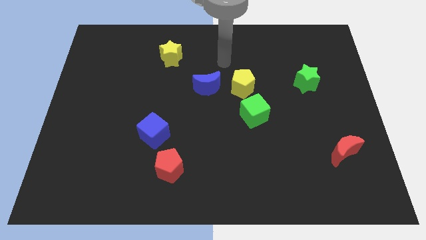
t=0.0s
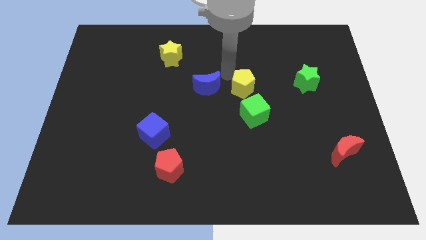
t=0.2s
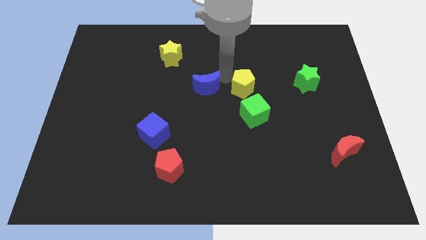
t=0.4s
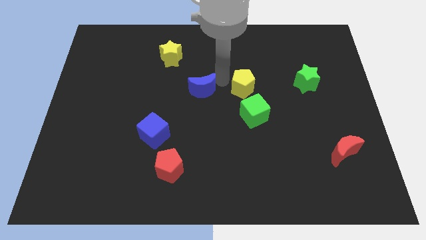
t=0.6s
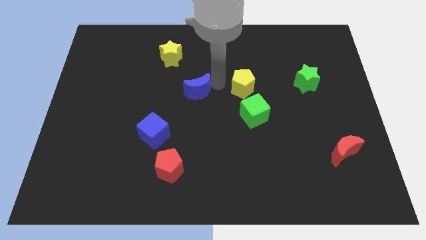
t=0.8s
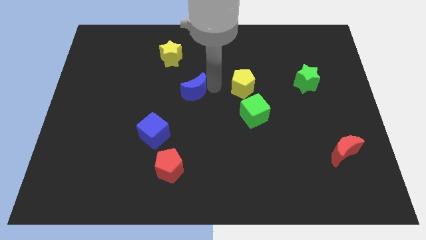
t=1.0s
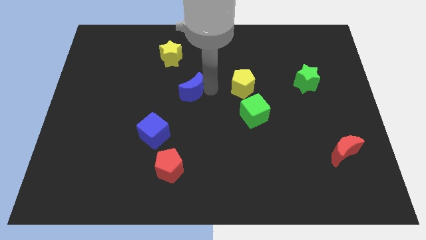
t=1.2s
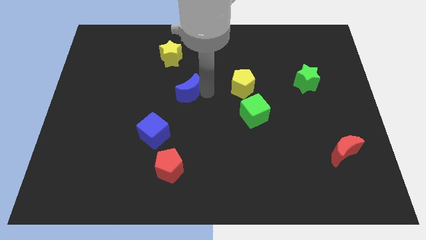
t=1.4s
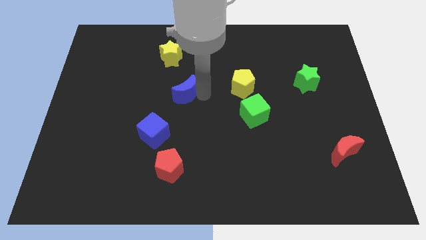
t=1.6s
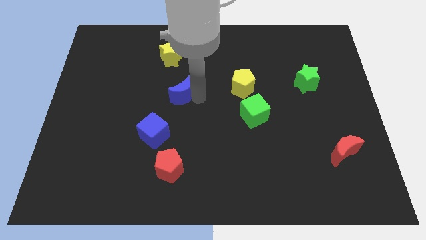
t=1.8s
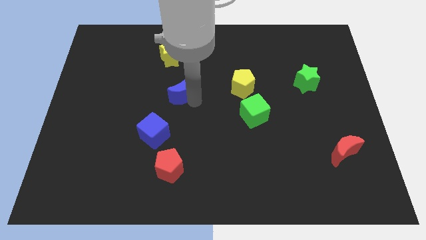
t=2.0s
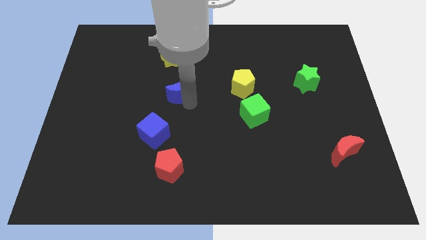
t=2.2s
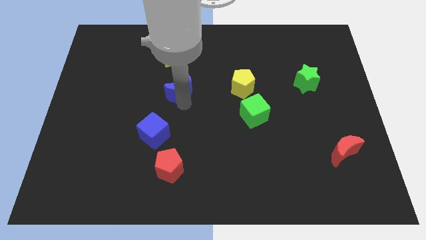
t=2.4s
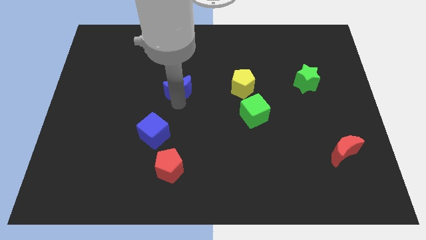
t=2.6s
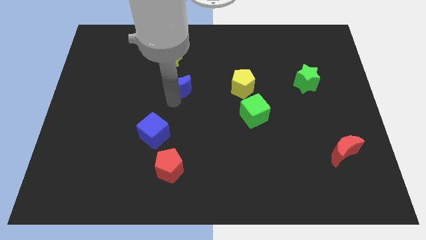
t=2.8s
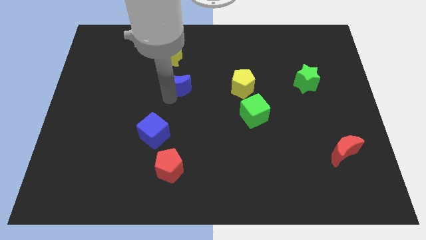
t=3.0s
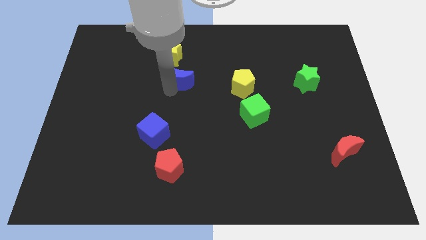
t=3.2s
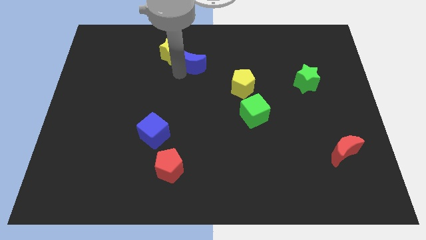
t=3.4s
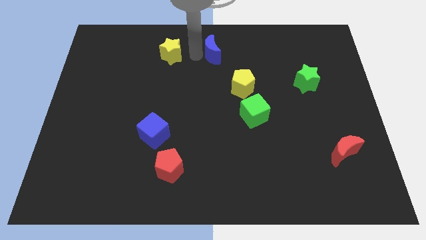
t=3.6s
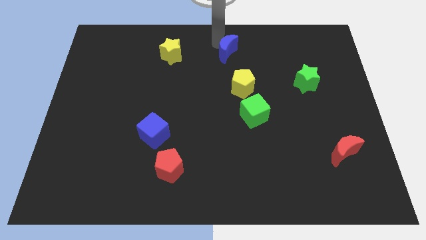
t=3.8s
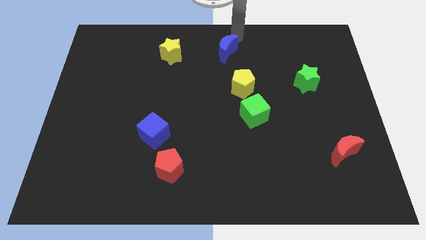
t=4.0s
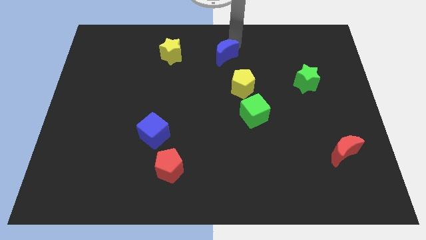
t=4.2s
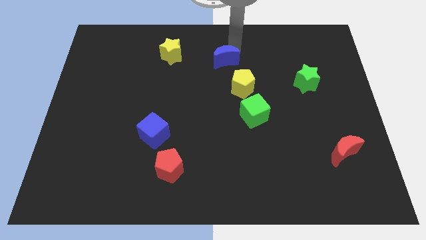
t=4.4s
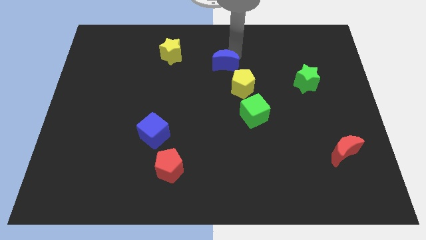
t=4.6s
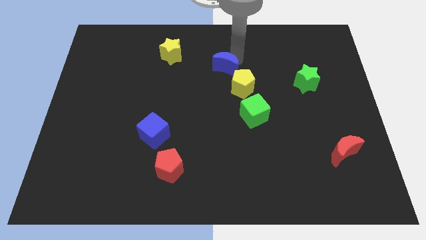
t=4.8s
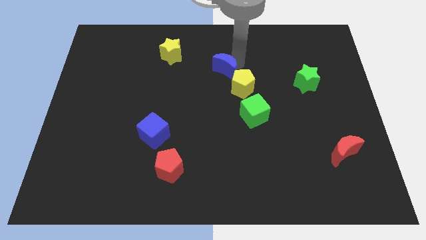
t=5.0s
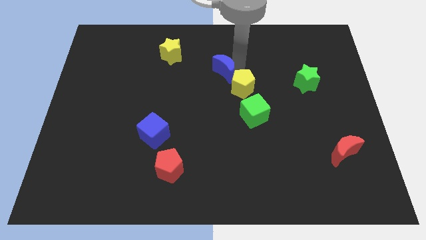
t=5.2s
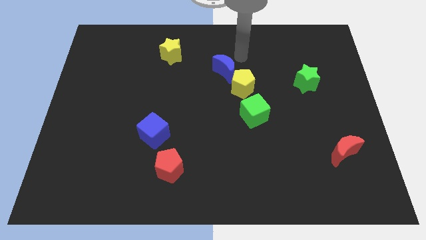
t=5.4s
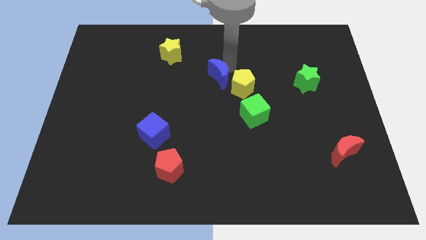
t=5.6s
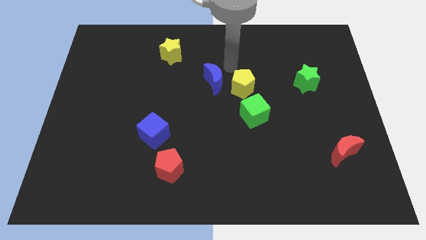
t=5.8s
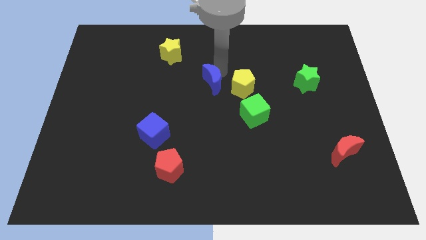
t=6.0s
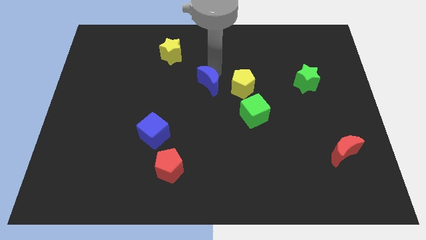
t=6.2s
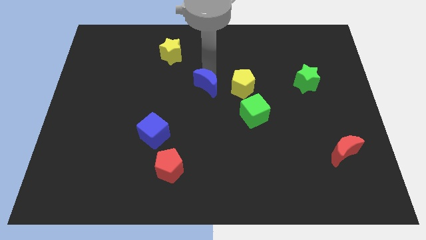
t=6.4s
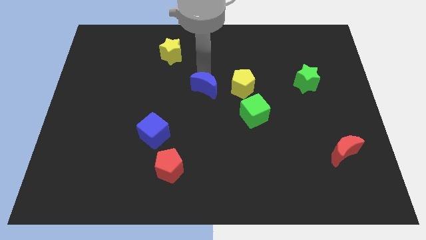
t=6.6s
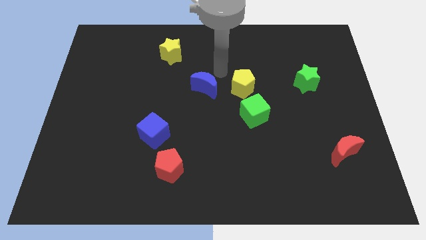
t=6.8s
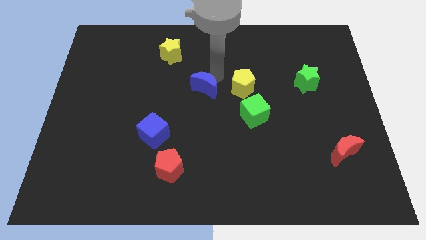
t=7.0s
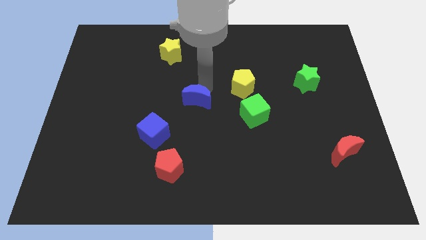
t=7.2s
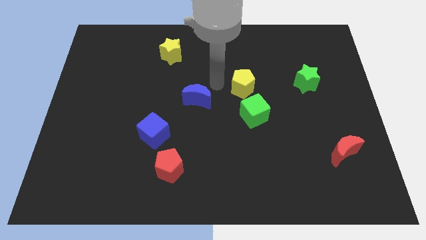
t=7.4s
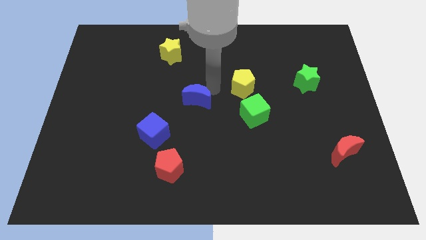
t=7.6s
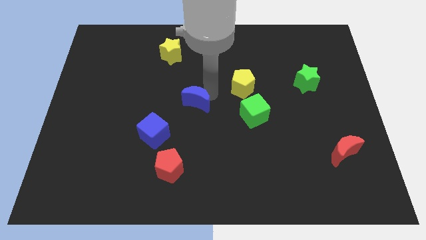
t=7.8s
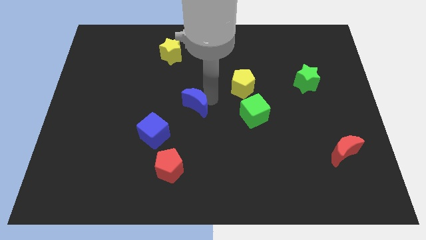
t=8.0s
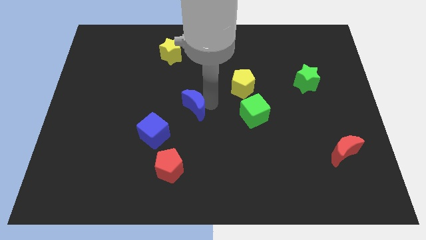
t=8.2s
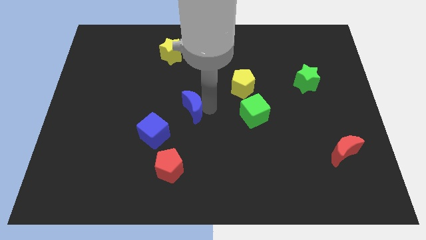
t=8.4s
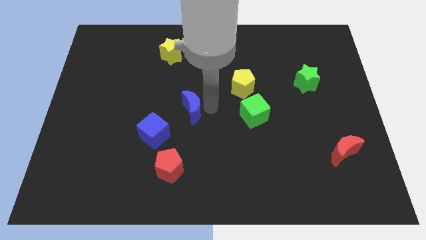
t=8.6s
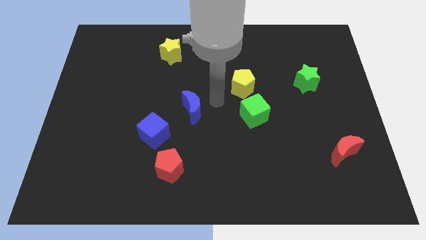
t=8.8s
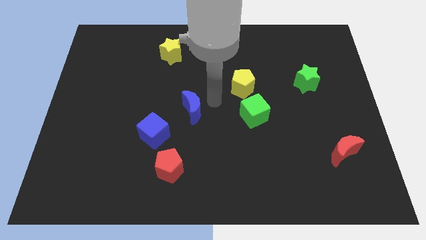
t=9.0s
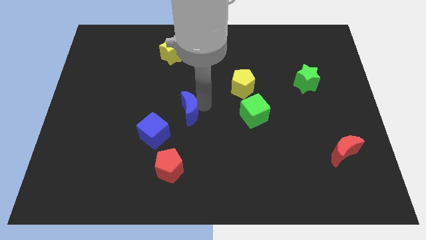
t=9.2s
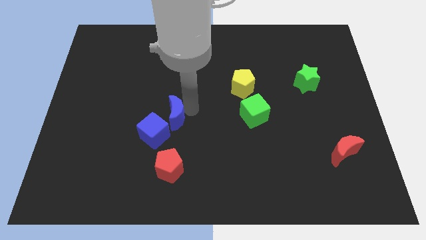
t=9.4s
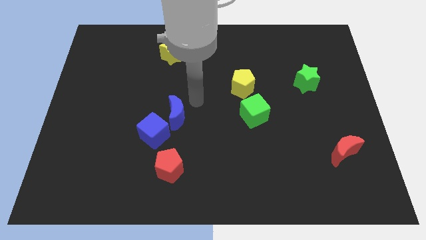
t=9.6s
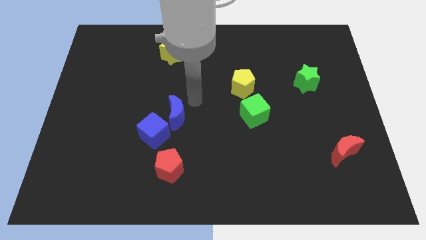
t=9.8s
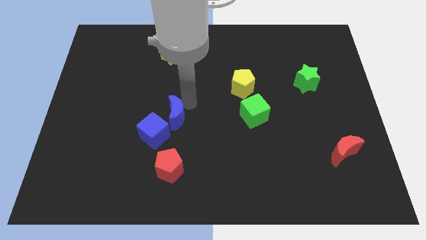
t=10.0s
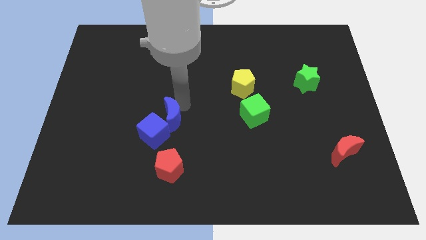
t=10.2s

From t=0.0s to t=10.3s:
slide the blue moon close to the blue cube

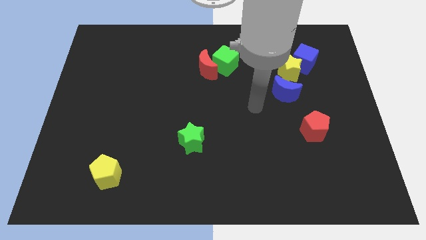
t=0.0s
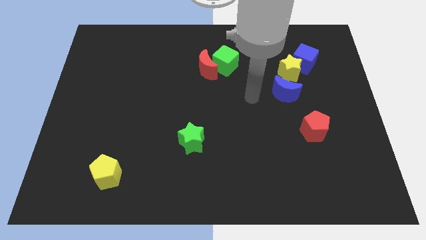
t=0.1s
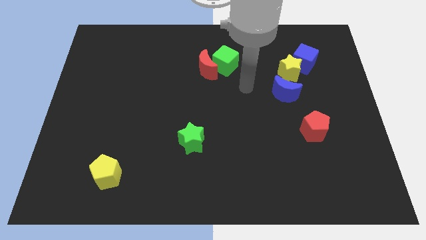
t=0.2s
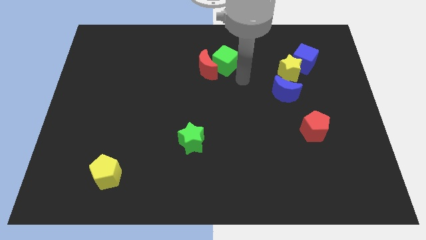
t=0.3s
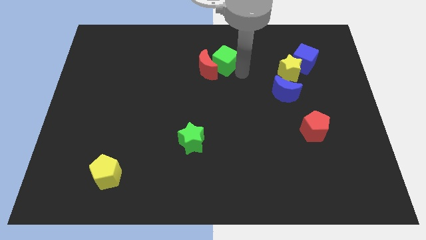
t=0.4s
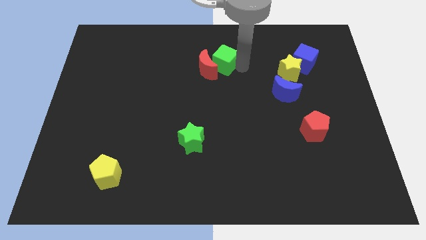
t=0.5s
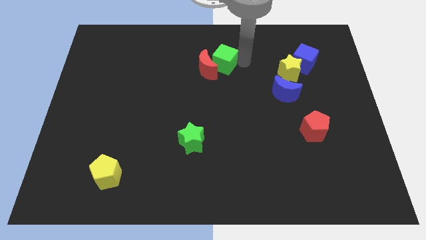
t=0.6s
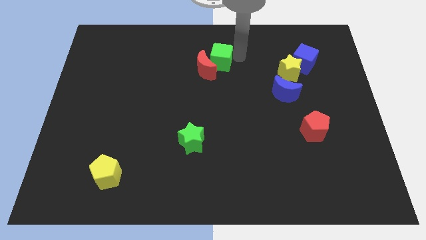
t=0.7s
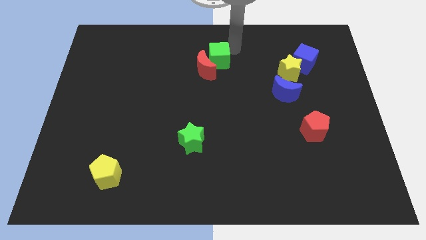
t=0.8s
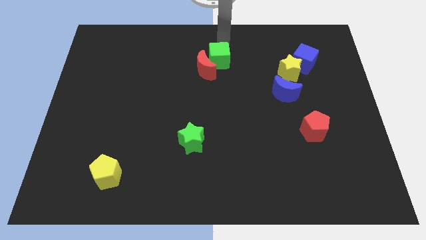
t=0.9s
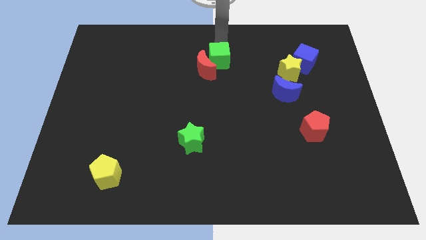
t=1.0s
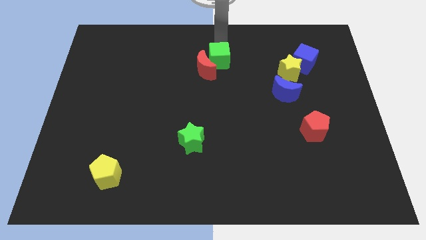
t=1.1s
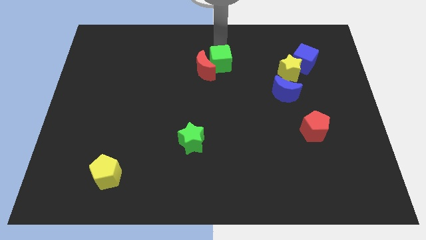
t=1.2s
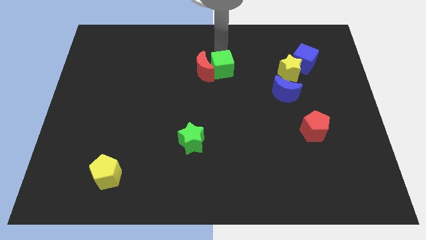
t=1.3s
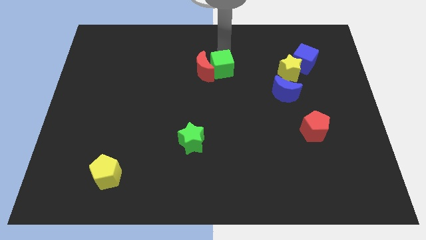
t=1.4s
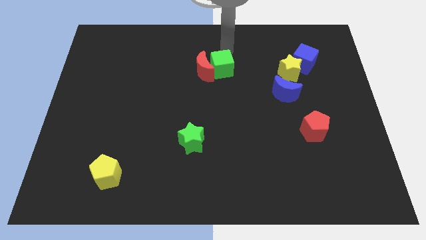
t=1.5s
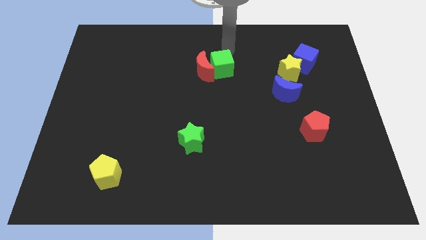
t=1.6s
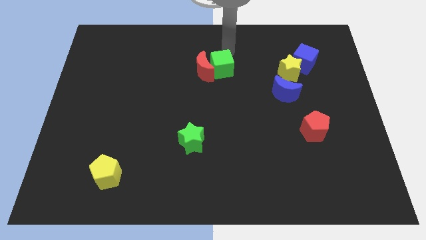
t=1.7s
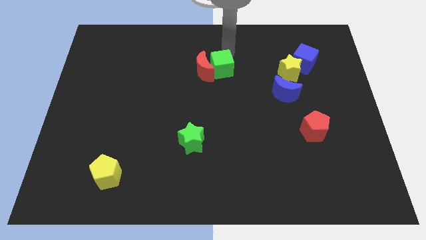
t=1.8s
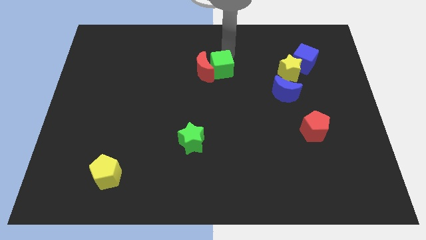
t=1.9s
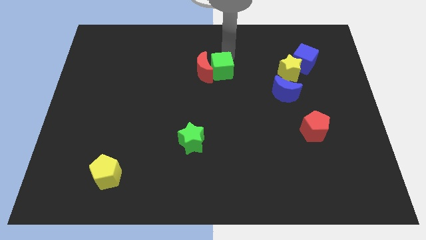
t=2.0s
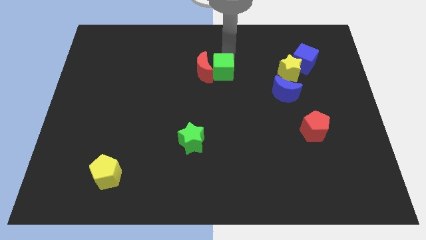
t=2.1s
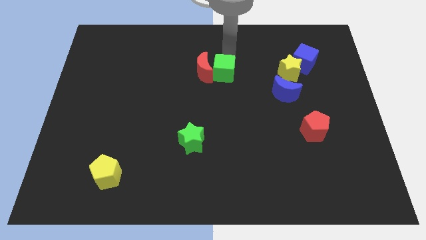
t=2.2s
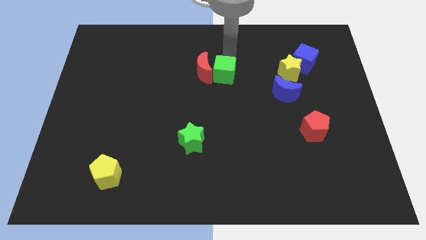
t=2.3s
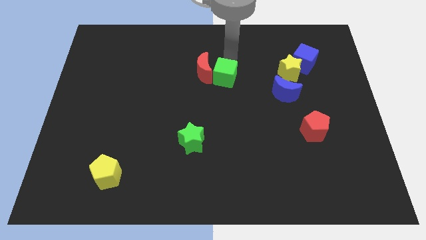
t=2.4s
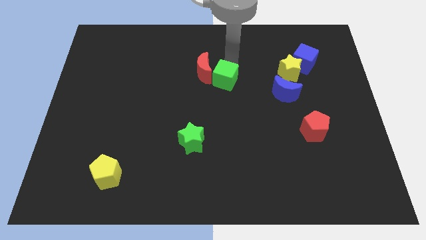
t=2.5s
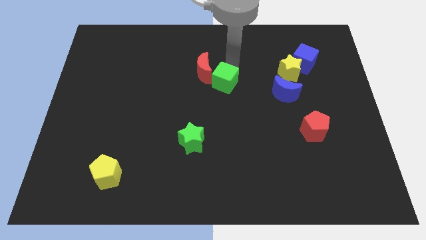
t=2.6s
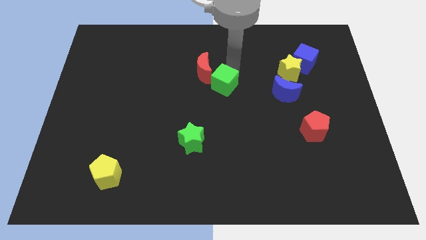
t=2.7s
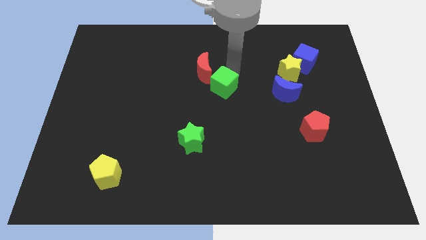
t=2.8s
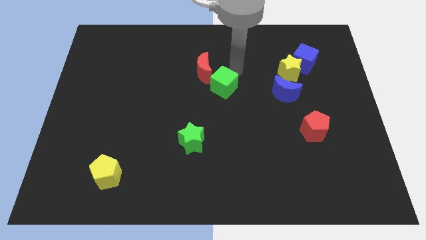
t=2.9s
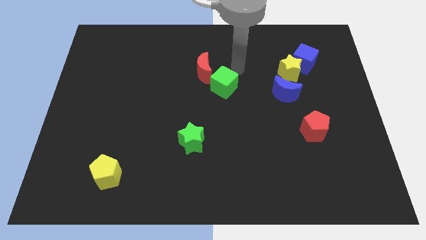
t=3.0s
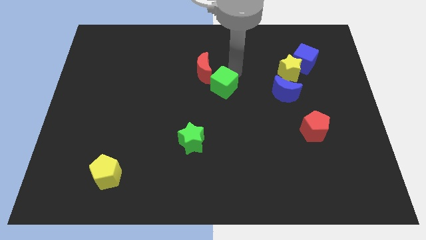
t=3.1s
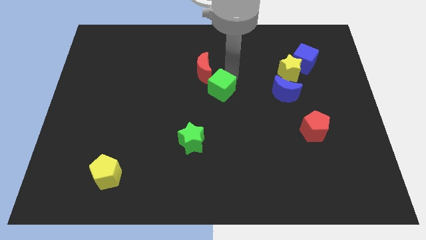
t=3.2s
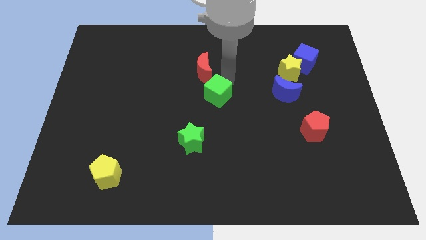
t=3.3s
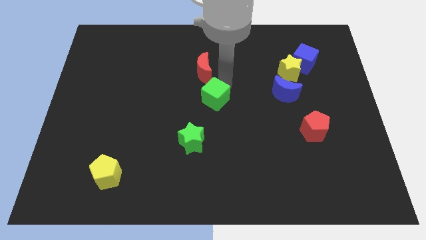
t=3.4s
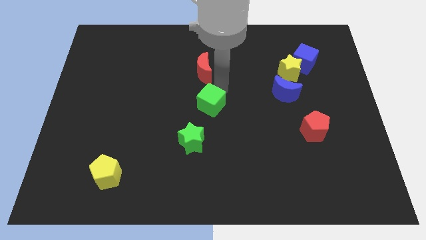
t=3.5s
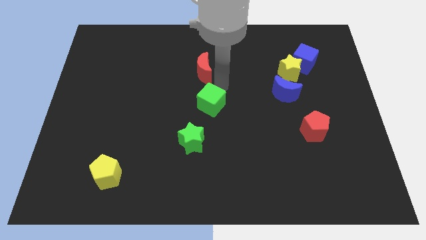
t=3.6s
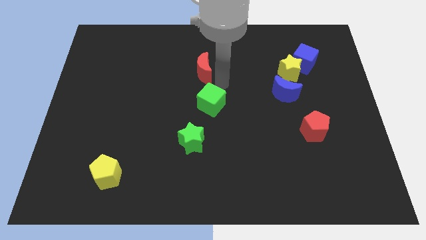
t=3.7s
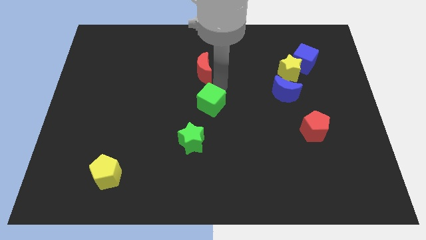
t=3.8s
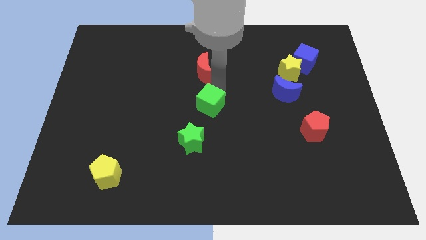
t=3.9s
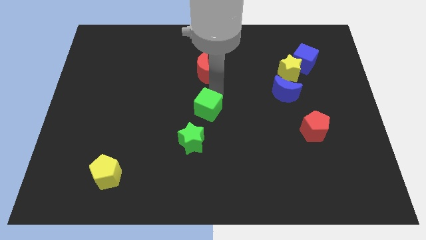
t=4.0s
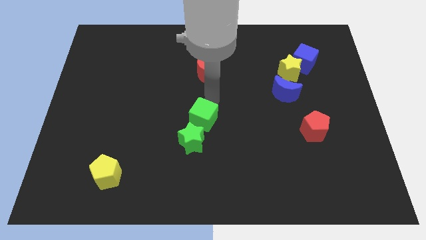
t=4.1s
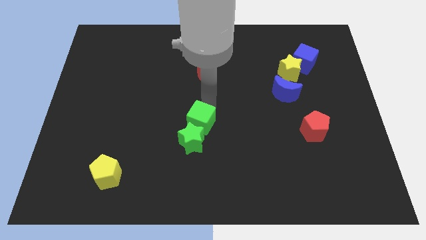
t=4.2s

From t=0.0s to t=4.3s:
push the green cube towards the green star
